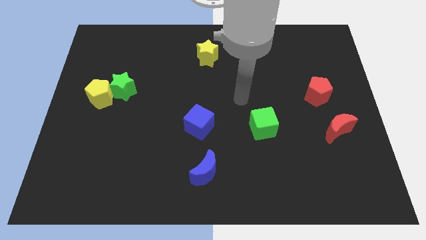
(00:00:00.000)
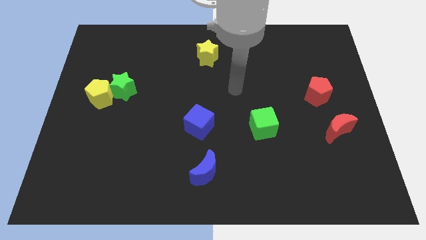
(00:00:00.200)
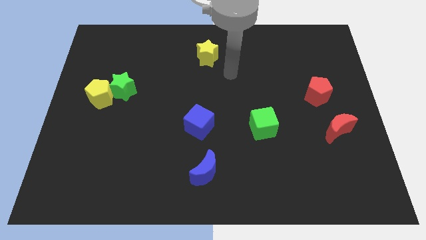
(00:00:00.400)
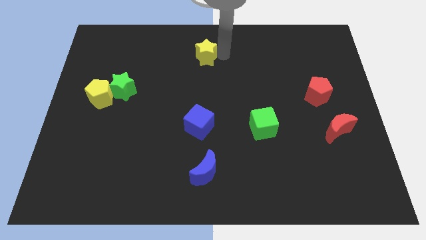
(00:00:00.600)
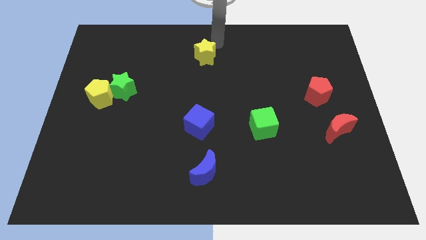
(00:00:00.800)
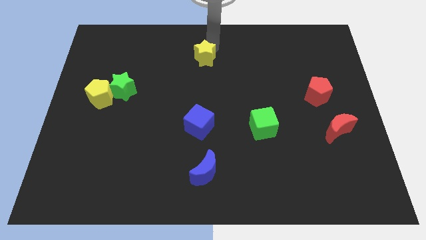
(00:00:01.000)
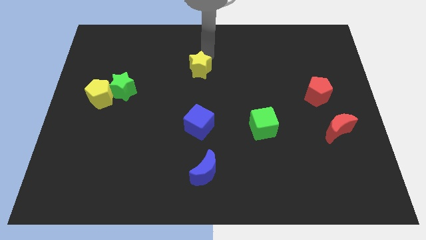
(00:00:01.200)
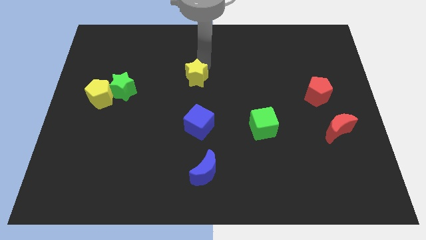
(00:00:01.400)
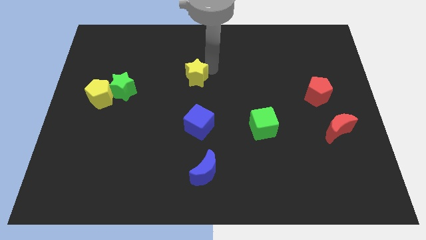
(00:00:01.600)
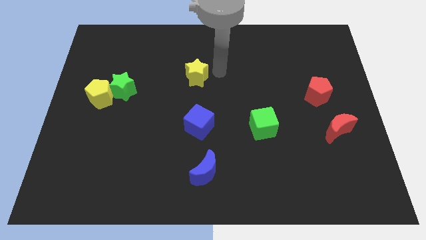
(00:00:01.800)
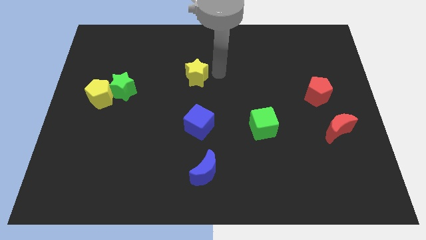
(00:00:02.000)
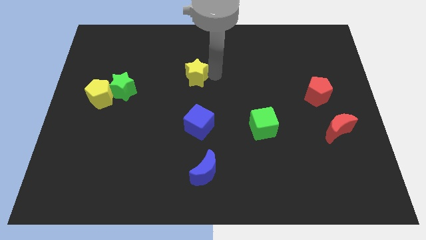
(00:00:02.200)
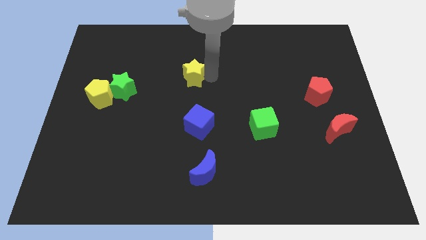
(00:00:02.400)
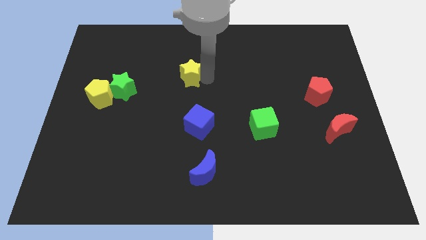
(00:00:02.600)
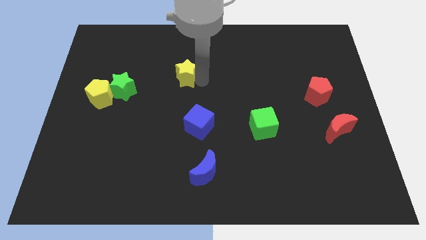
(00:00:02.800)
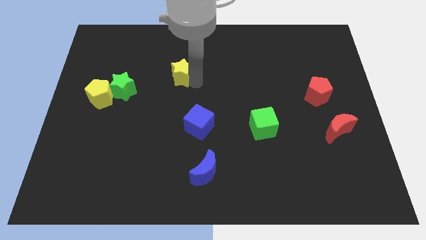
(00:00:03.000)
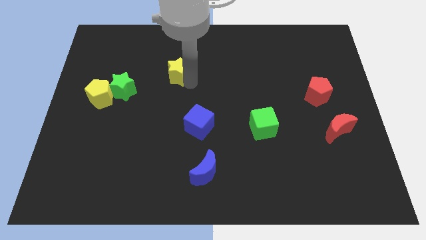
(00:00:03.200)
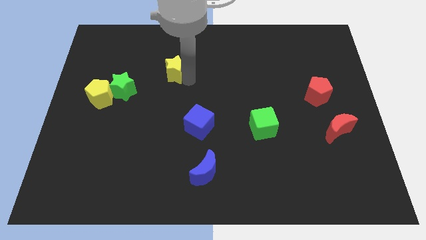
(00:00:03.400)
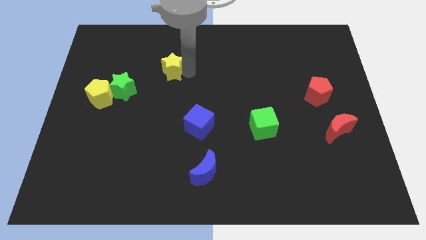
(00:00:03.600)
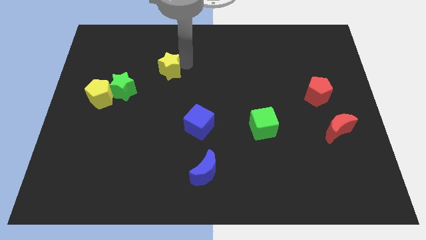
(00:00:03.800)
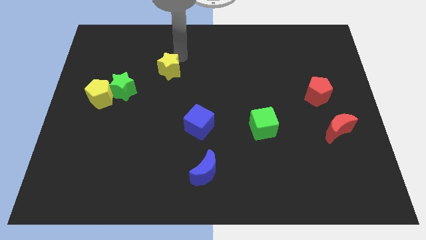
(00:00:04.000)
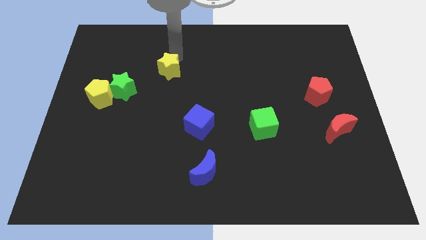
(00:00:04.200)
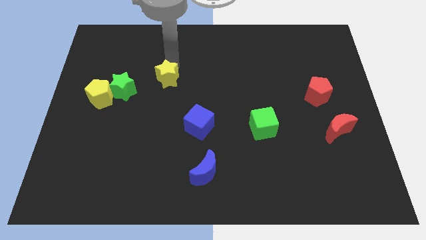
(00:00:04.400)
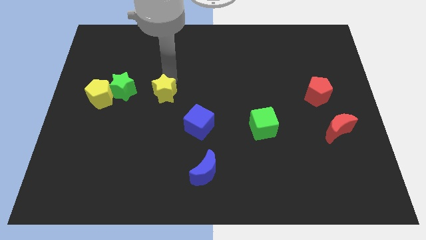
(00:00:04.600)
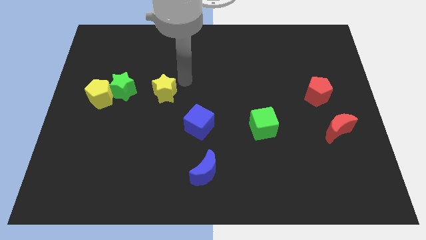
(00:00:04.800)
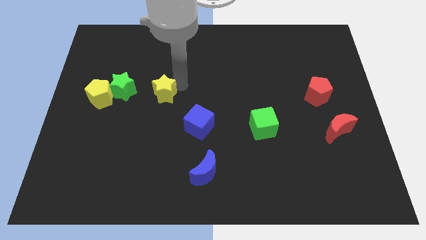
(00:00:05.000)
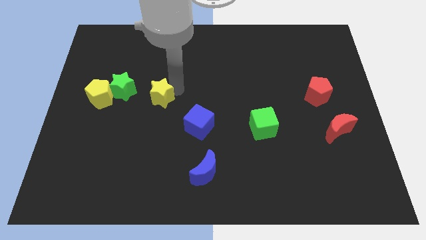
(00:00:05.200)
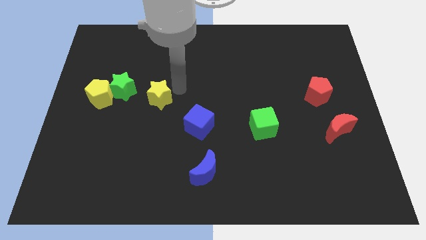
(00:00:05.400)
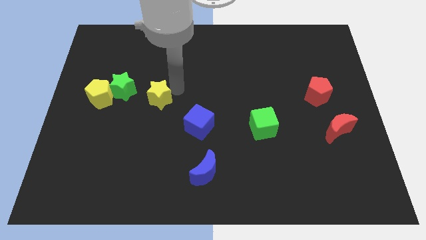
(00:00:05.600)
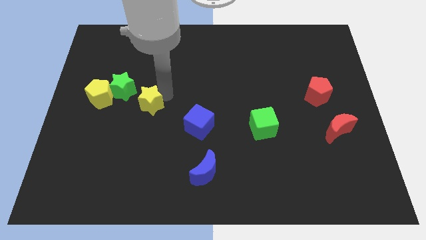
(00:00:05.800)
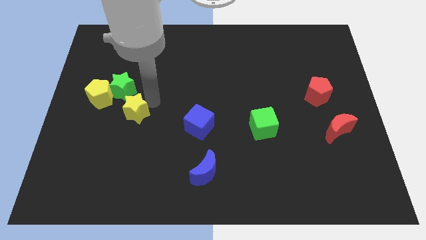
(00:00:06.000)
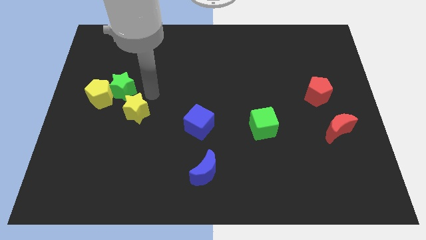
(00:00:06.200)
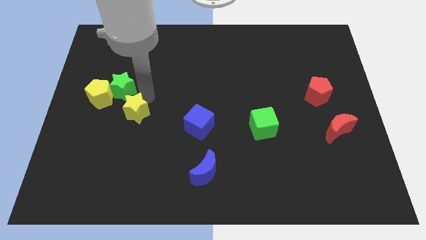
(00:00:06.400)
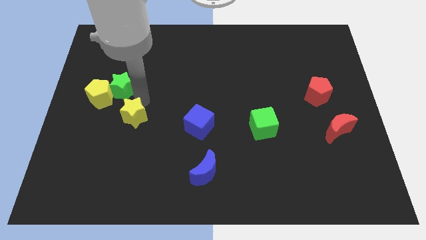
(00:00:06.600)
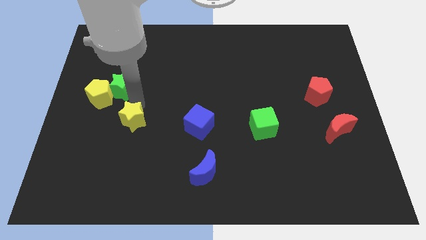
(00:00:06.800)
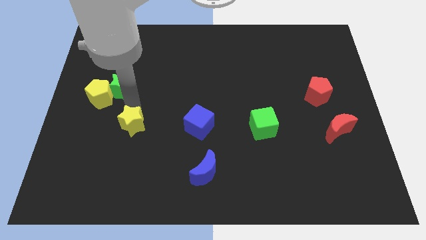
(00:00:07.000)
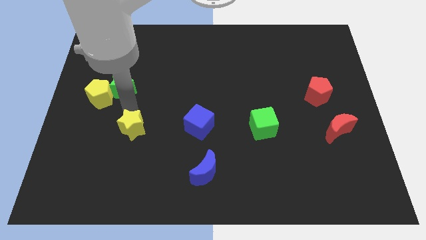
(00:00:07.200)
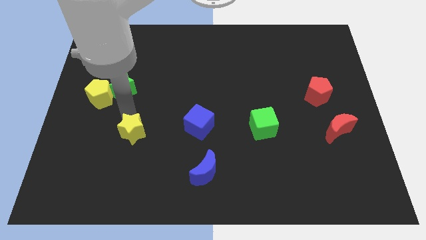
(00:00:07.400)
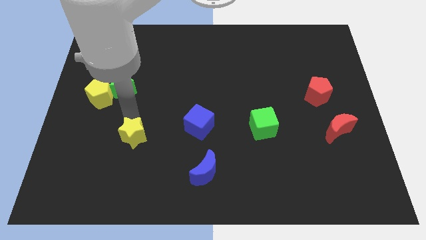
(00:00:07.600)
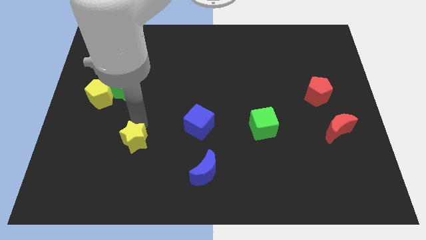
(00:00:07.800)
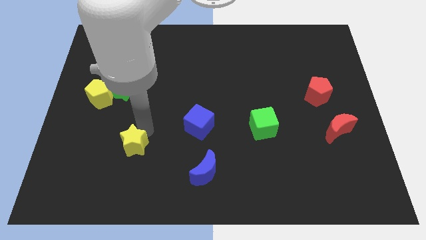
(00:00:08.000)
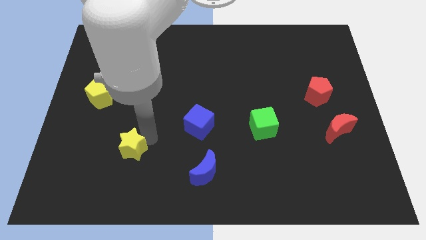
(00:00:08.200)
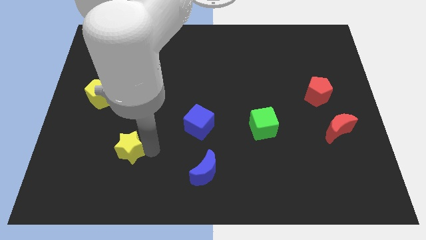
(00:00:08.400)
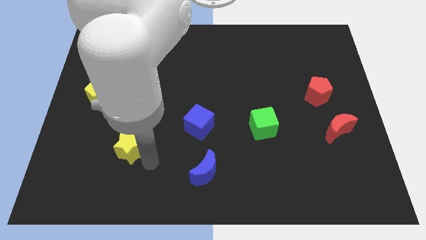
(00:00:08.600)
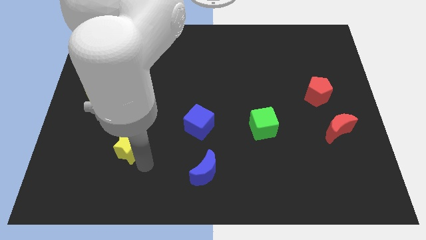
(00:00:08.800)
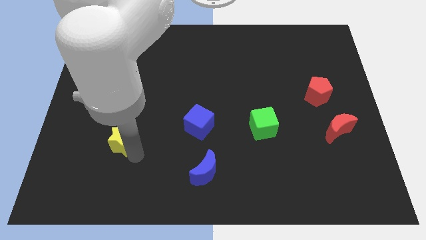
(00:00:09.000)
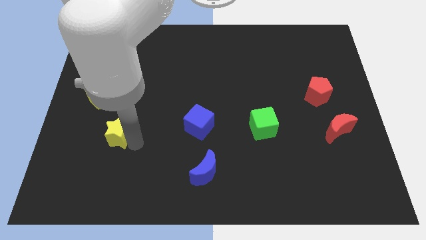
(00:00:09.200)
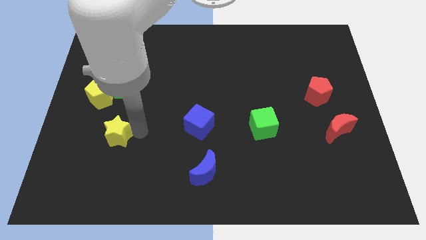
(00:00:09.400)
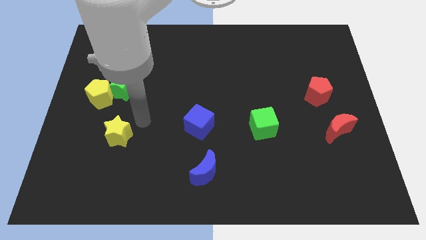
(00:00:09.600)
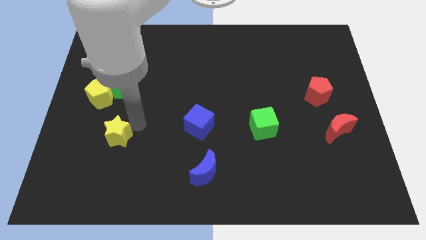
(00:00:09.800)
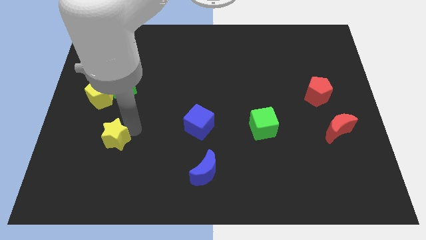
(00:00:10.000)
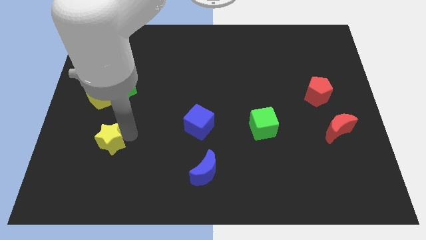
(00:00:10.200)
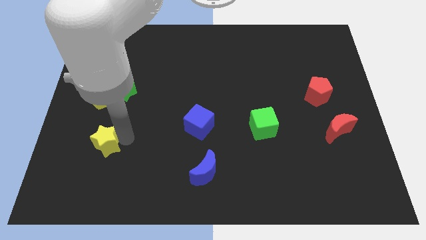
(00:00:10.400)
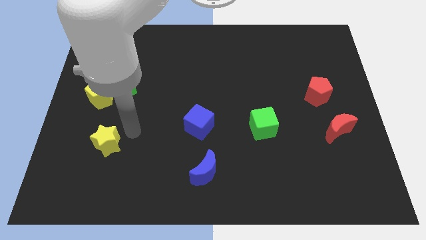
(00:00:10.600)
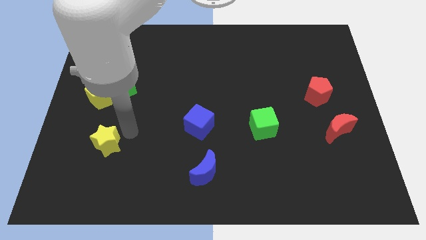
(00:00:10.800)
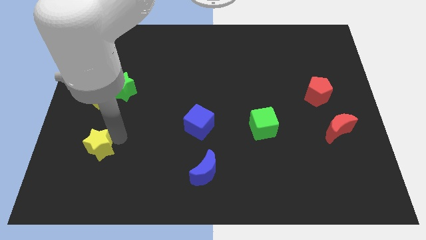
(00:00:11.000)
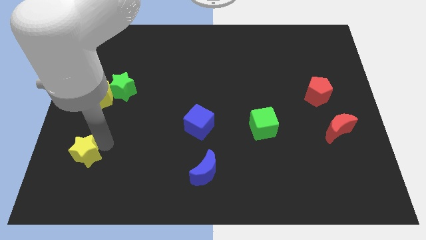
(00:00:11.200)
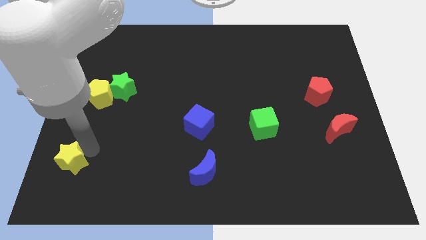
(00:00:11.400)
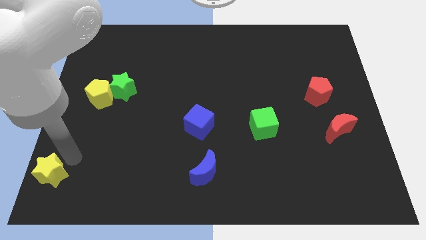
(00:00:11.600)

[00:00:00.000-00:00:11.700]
put the yellow star to the bottom left corner

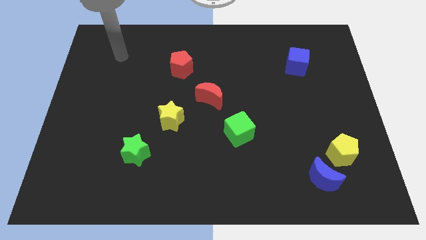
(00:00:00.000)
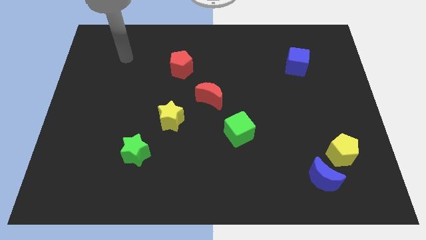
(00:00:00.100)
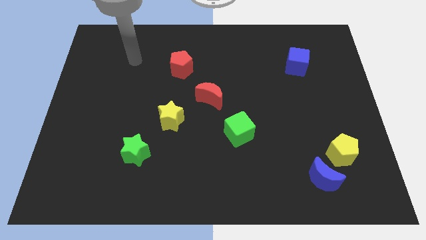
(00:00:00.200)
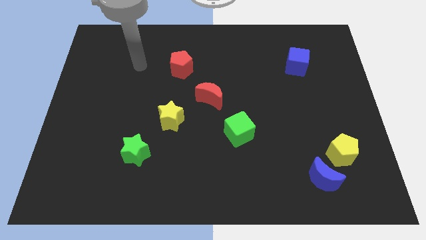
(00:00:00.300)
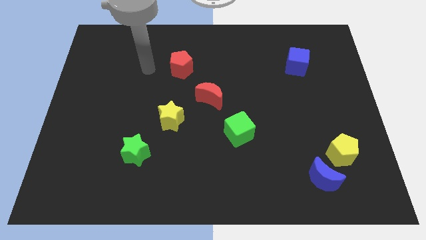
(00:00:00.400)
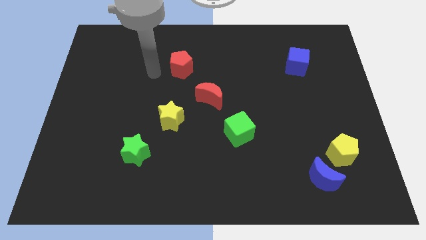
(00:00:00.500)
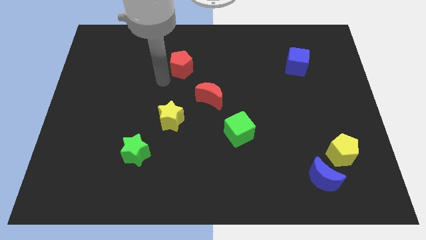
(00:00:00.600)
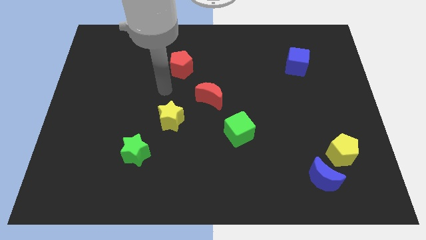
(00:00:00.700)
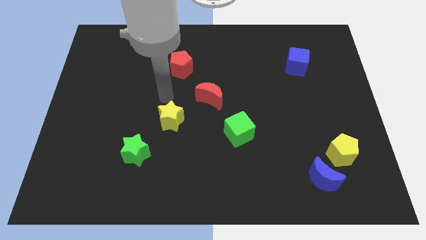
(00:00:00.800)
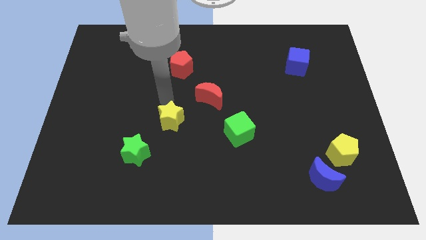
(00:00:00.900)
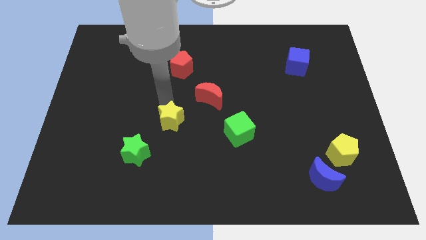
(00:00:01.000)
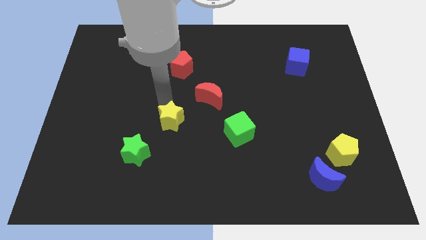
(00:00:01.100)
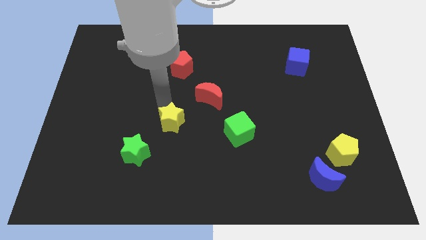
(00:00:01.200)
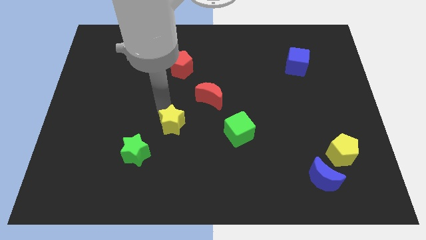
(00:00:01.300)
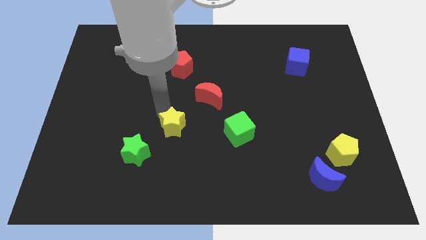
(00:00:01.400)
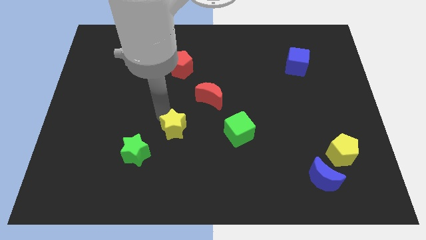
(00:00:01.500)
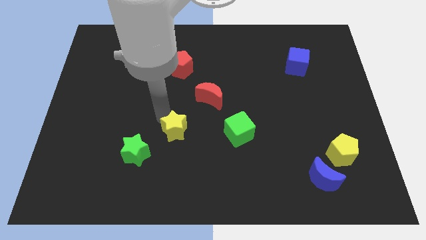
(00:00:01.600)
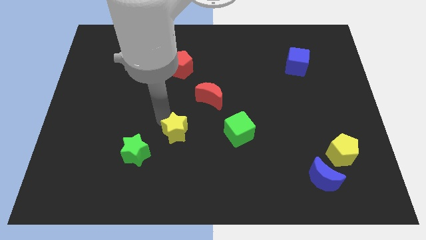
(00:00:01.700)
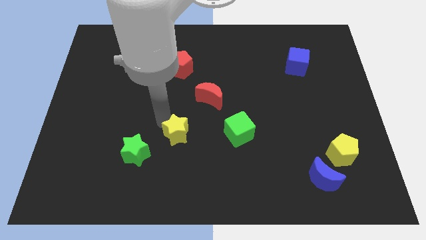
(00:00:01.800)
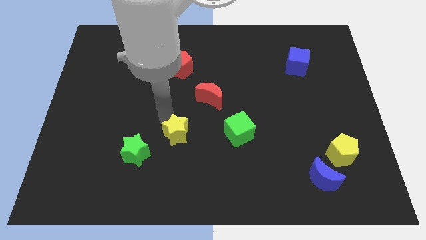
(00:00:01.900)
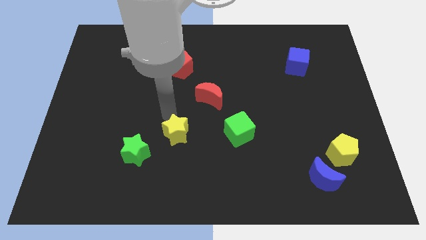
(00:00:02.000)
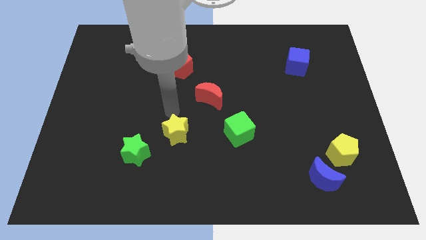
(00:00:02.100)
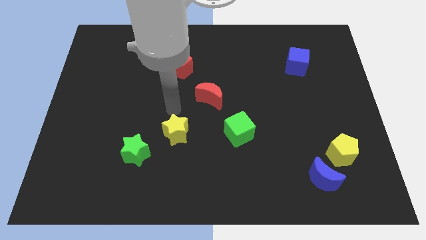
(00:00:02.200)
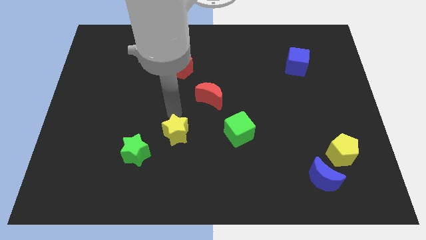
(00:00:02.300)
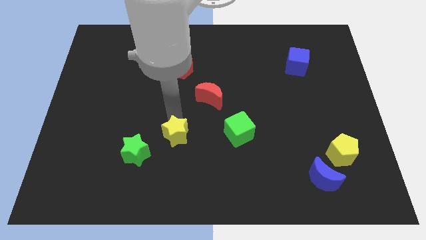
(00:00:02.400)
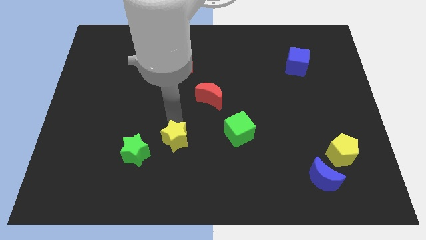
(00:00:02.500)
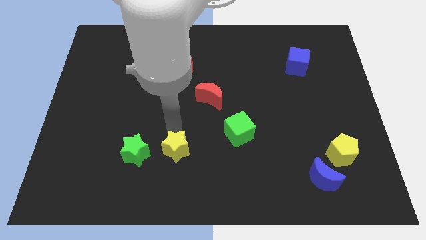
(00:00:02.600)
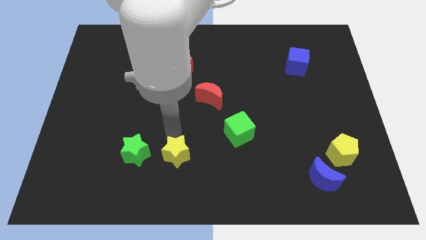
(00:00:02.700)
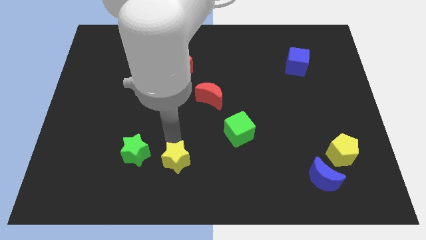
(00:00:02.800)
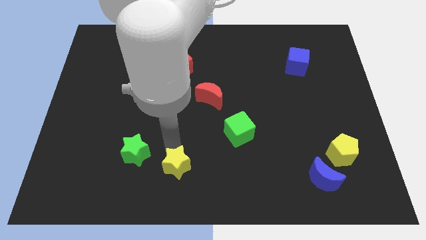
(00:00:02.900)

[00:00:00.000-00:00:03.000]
move the yellow star to the bottom side
